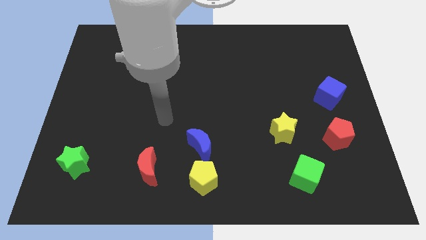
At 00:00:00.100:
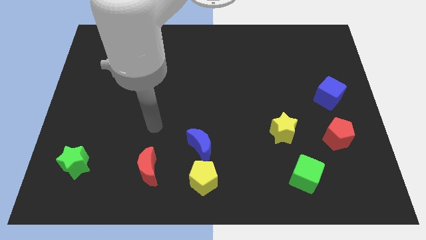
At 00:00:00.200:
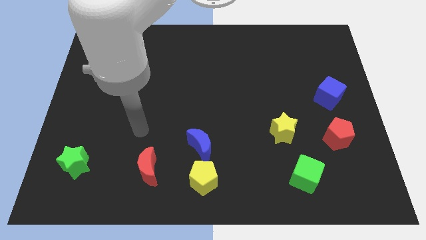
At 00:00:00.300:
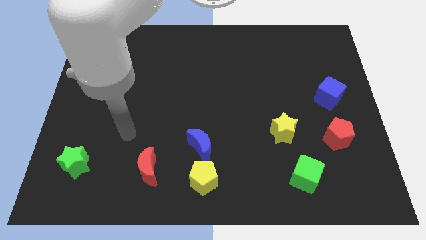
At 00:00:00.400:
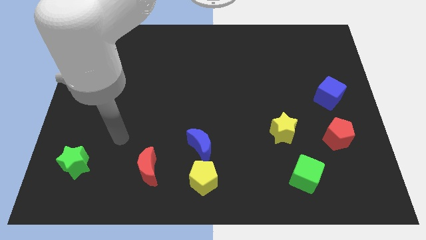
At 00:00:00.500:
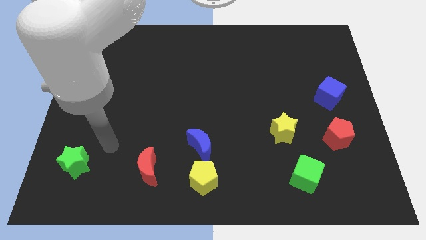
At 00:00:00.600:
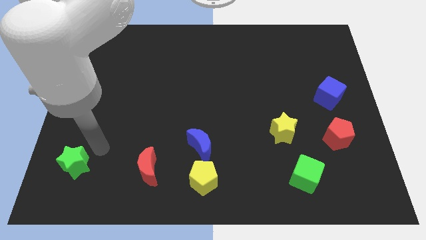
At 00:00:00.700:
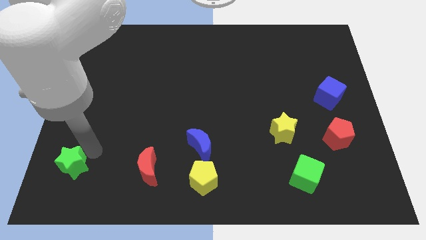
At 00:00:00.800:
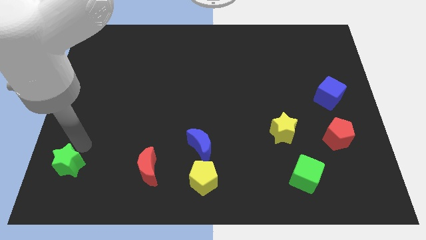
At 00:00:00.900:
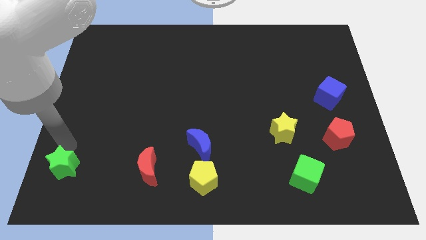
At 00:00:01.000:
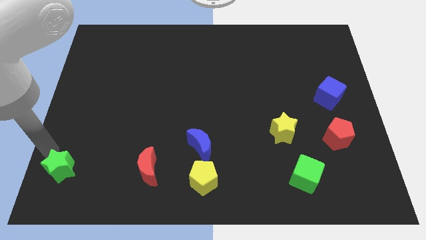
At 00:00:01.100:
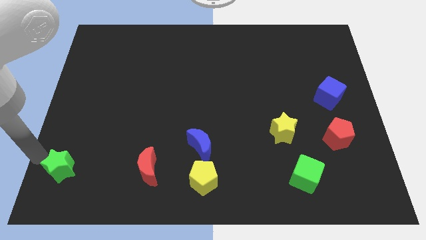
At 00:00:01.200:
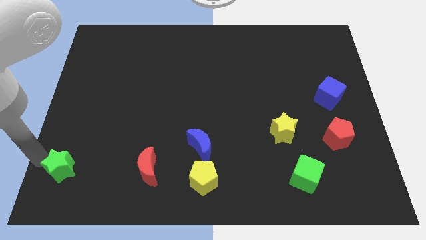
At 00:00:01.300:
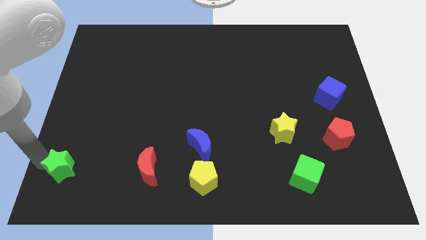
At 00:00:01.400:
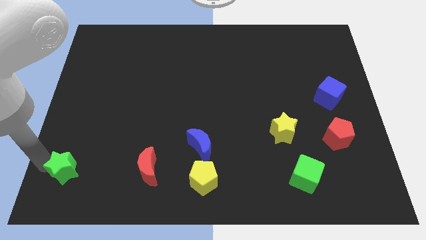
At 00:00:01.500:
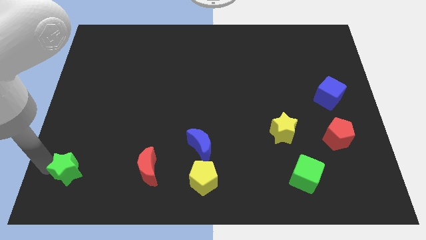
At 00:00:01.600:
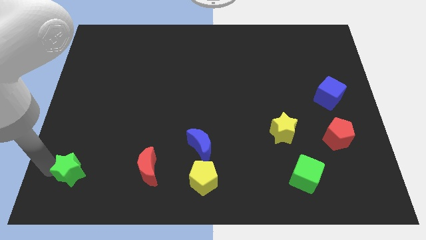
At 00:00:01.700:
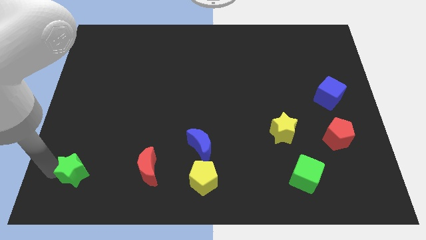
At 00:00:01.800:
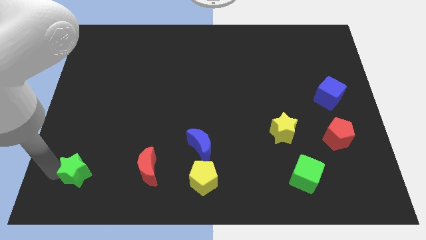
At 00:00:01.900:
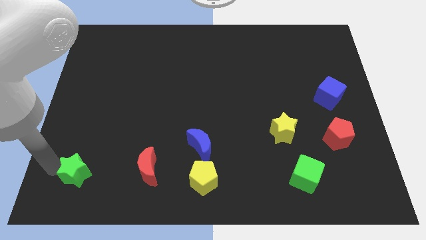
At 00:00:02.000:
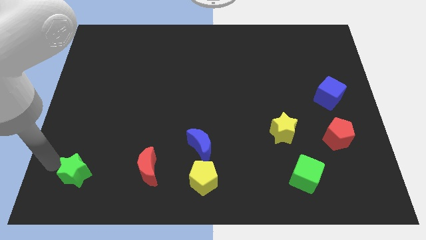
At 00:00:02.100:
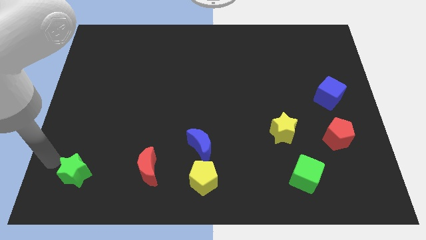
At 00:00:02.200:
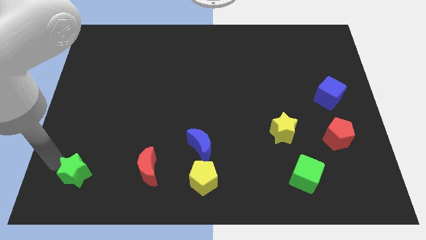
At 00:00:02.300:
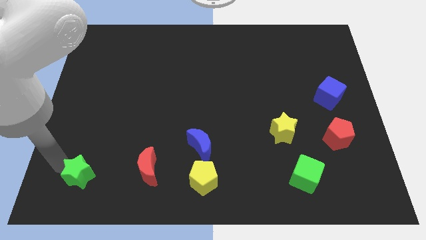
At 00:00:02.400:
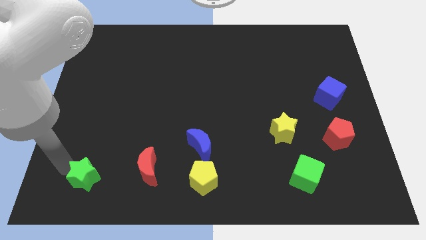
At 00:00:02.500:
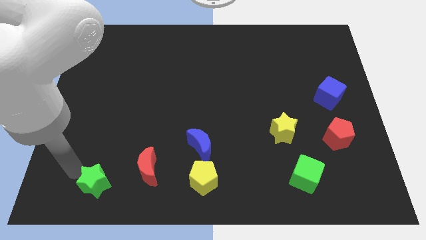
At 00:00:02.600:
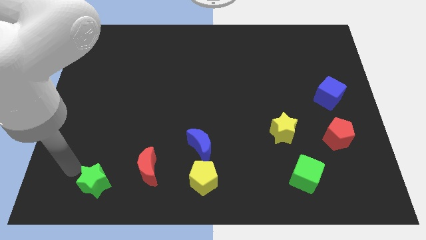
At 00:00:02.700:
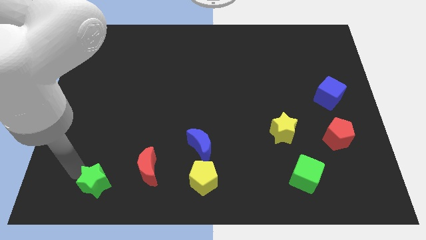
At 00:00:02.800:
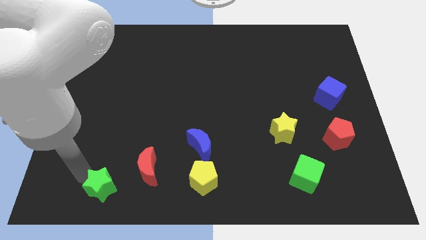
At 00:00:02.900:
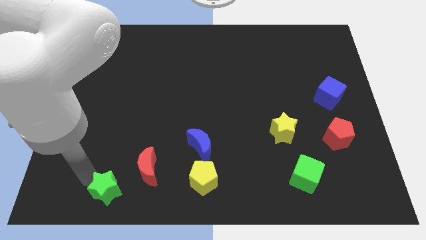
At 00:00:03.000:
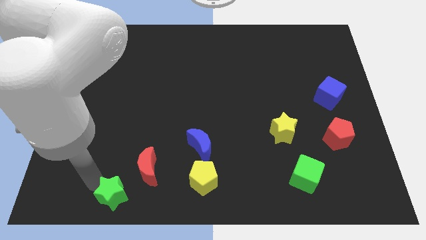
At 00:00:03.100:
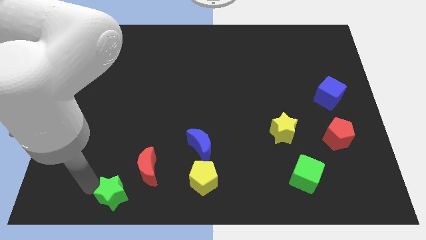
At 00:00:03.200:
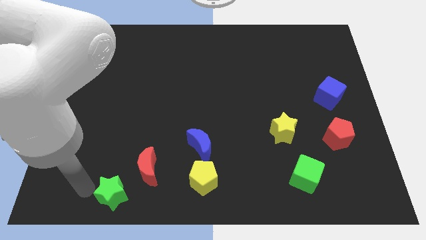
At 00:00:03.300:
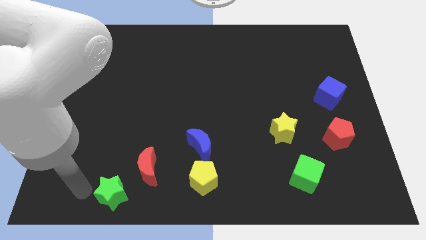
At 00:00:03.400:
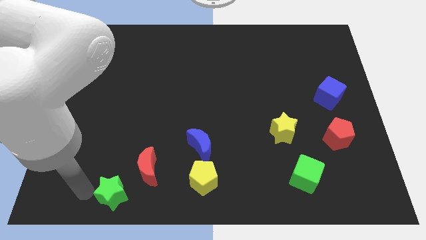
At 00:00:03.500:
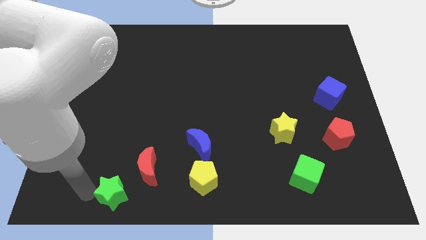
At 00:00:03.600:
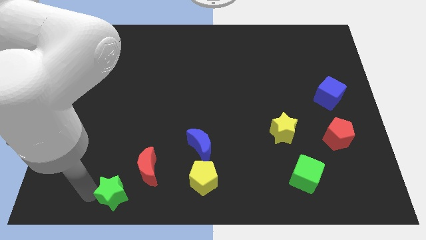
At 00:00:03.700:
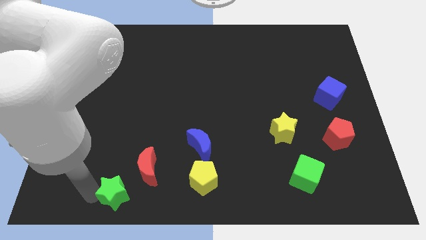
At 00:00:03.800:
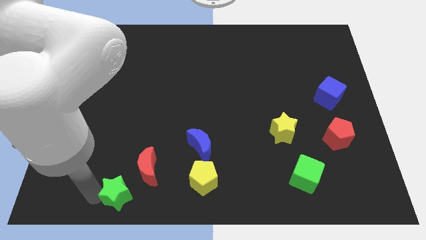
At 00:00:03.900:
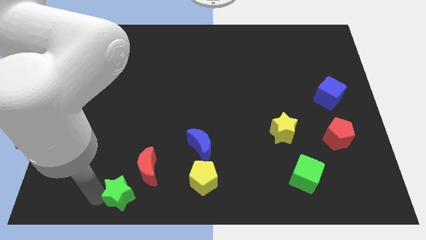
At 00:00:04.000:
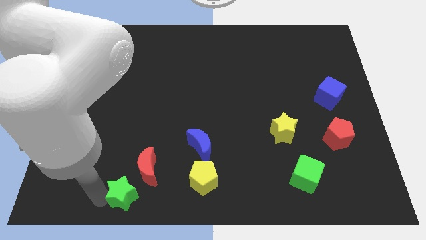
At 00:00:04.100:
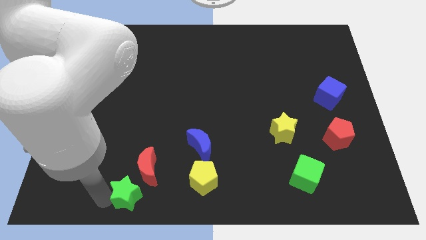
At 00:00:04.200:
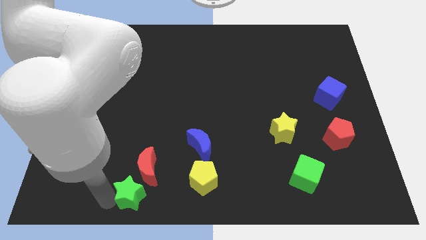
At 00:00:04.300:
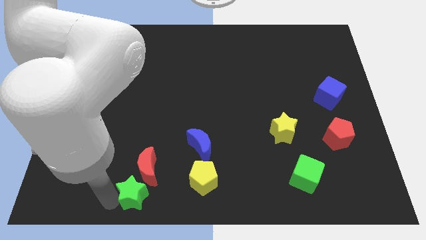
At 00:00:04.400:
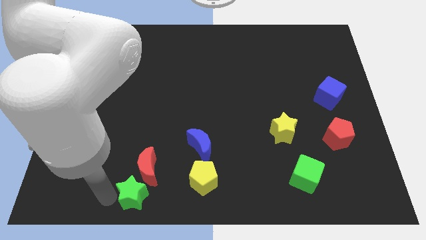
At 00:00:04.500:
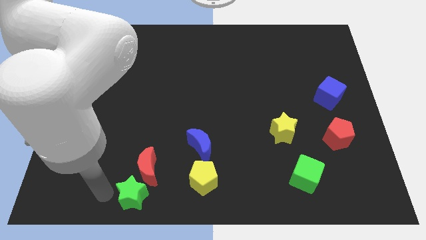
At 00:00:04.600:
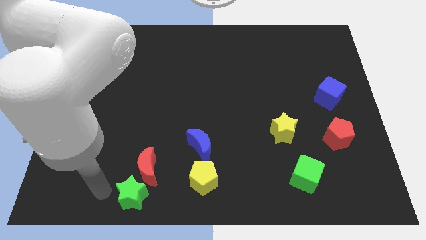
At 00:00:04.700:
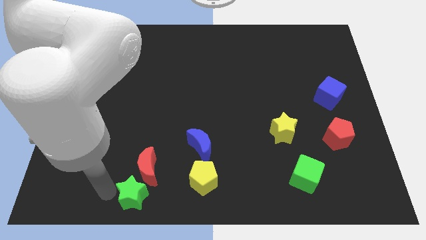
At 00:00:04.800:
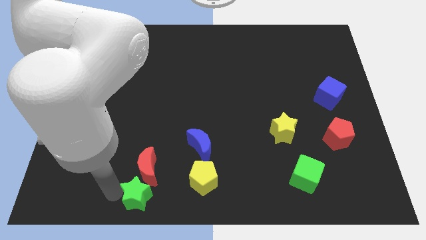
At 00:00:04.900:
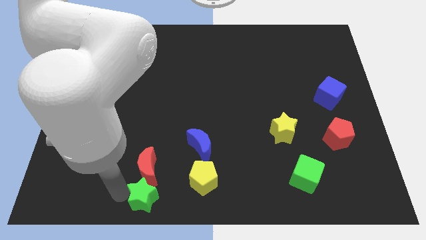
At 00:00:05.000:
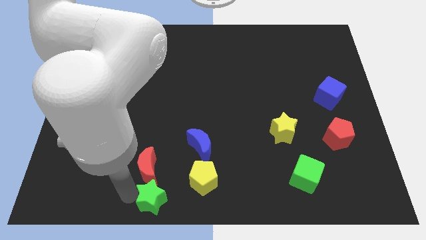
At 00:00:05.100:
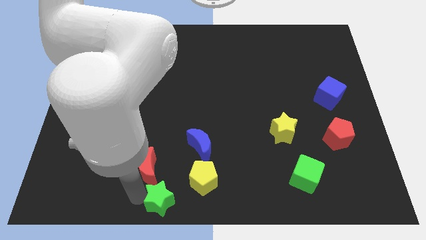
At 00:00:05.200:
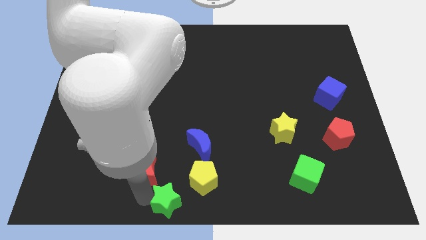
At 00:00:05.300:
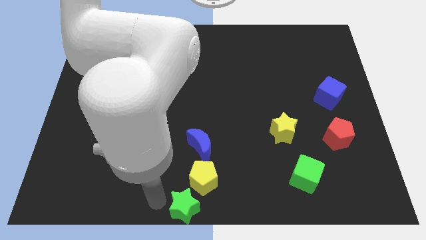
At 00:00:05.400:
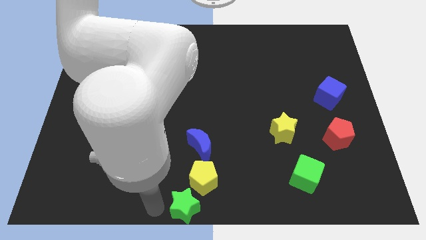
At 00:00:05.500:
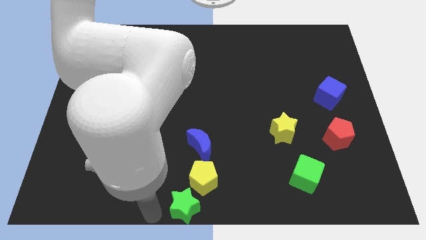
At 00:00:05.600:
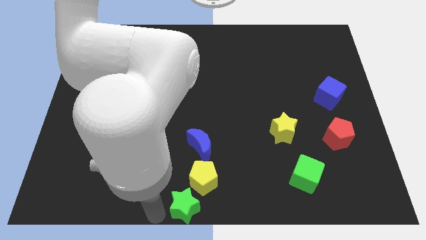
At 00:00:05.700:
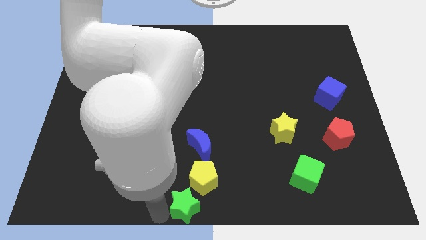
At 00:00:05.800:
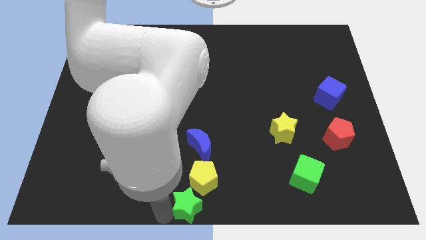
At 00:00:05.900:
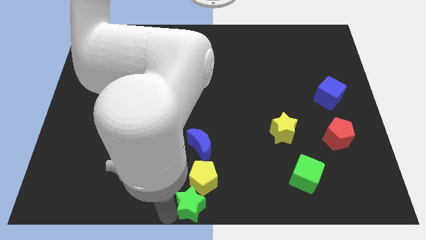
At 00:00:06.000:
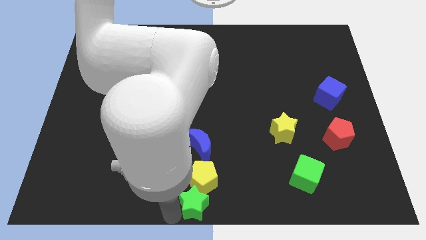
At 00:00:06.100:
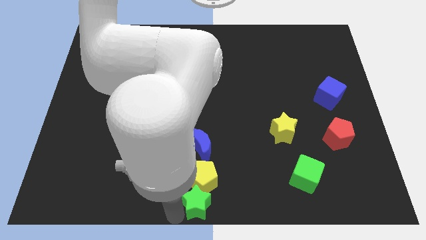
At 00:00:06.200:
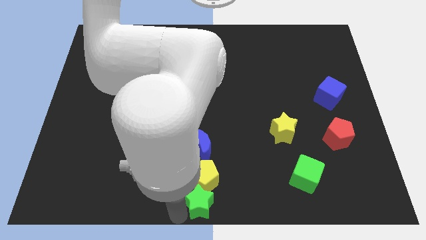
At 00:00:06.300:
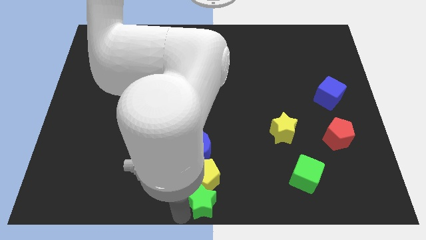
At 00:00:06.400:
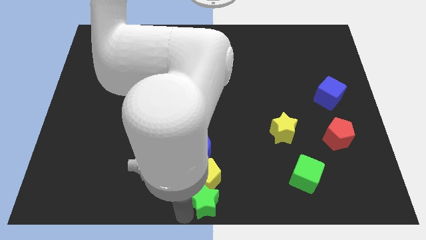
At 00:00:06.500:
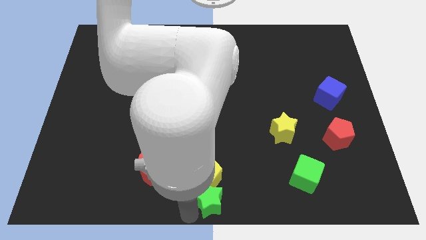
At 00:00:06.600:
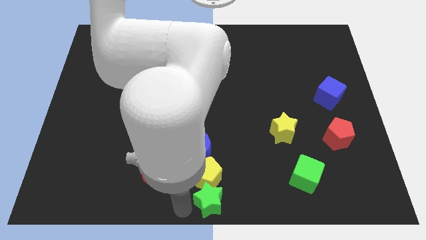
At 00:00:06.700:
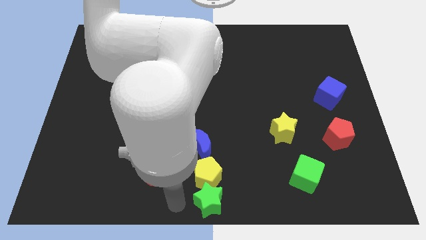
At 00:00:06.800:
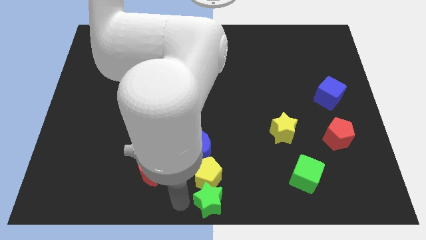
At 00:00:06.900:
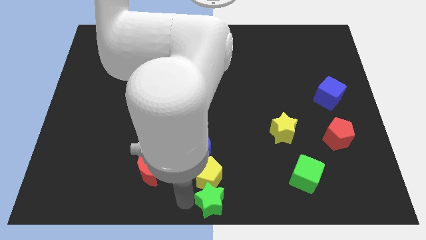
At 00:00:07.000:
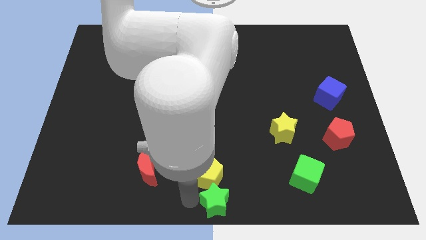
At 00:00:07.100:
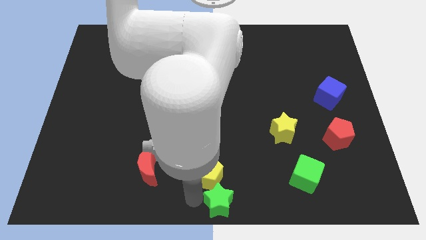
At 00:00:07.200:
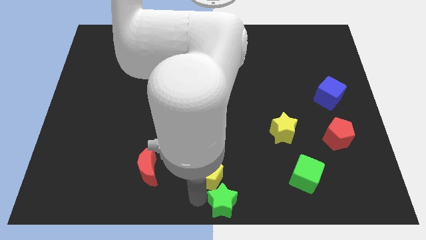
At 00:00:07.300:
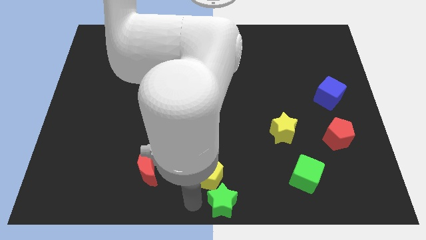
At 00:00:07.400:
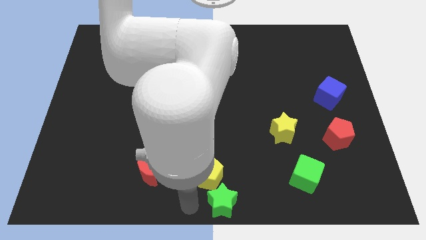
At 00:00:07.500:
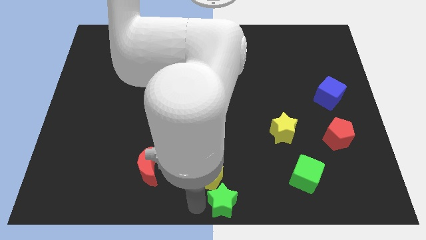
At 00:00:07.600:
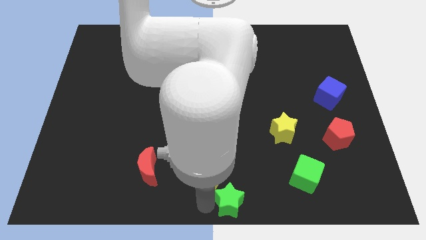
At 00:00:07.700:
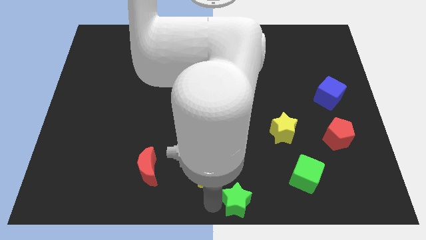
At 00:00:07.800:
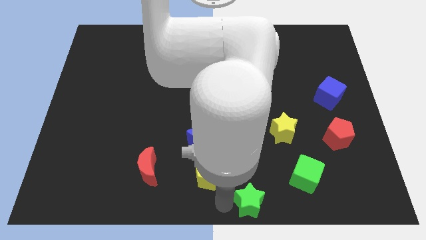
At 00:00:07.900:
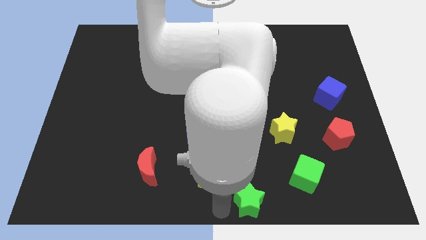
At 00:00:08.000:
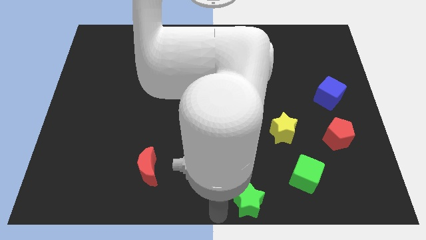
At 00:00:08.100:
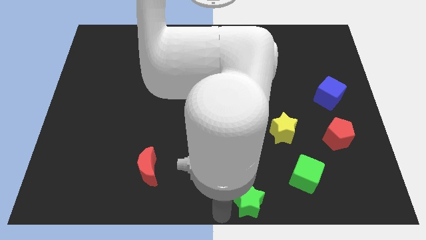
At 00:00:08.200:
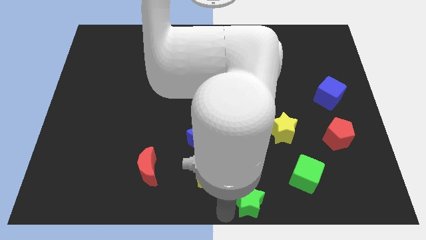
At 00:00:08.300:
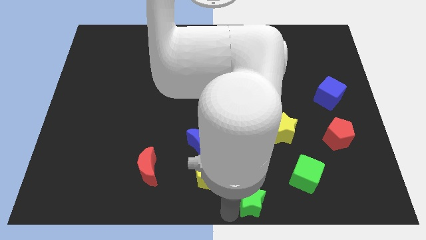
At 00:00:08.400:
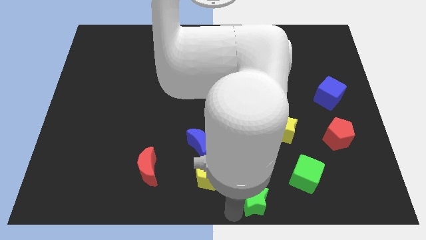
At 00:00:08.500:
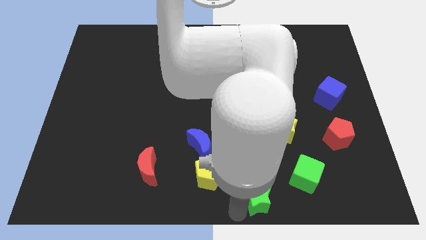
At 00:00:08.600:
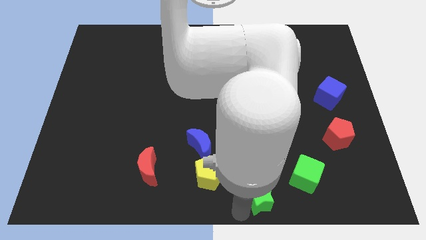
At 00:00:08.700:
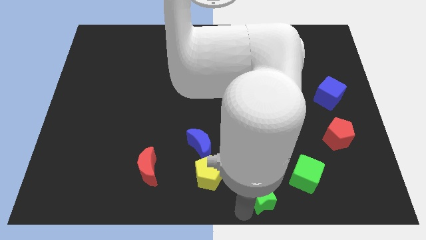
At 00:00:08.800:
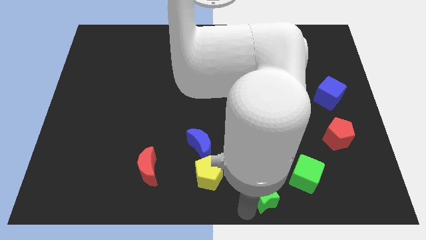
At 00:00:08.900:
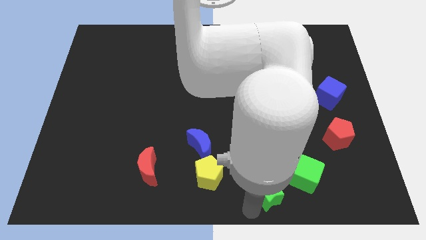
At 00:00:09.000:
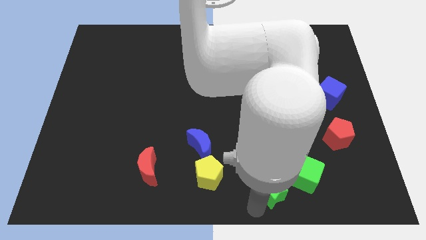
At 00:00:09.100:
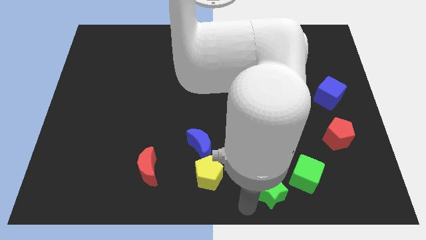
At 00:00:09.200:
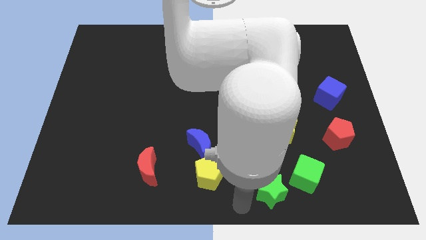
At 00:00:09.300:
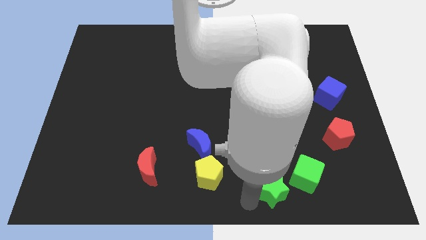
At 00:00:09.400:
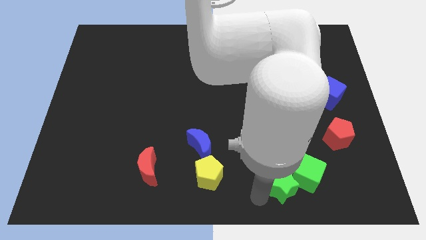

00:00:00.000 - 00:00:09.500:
put the green star towards the green cube
